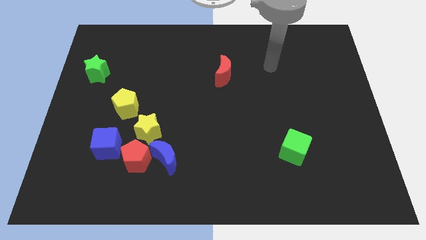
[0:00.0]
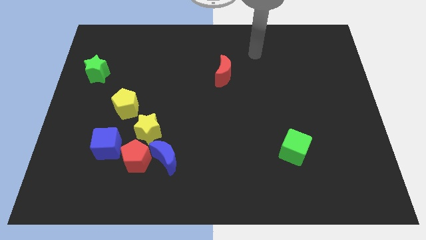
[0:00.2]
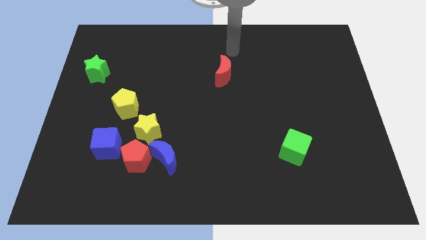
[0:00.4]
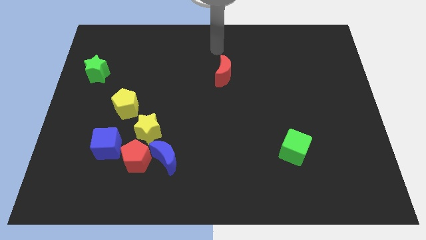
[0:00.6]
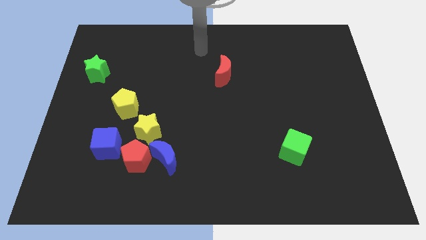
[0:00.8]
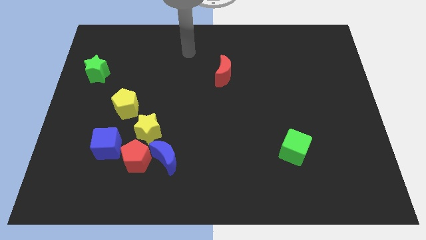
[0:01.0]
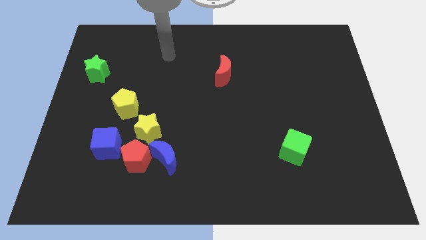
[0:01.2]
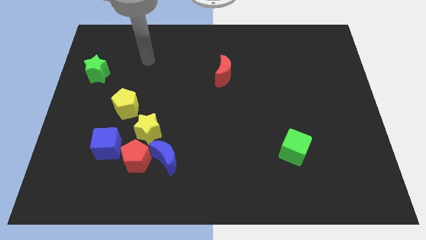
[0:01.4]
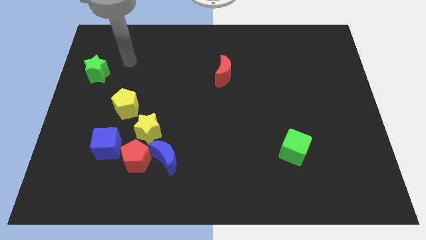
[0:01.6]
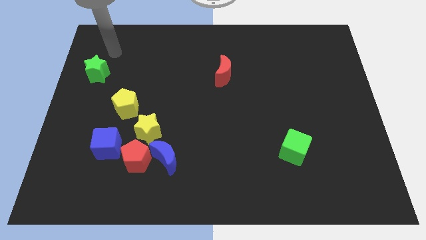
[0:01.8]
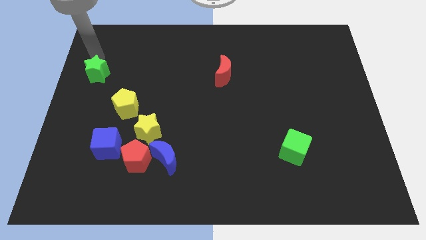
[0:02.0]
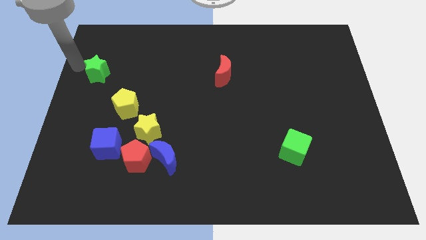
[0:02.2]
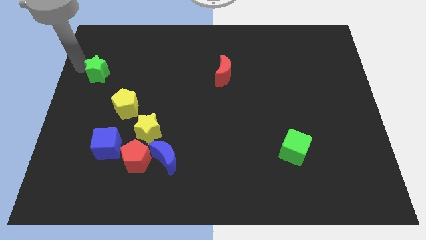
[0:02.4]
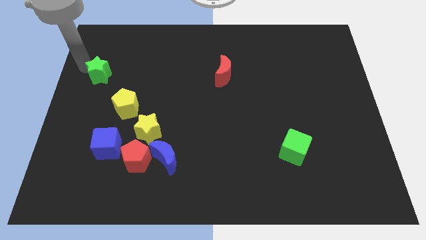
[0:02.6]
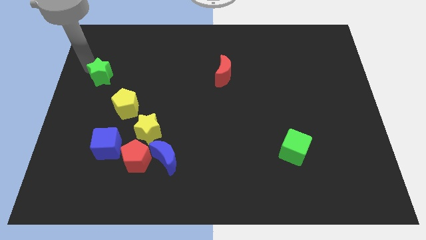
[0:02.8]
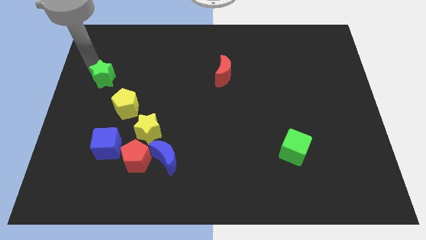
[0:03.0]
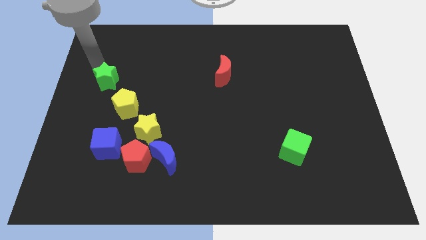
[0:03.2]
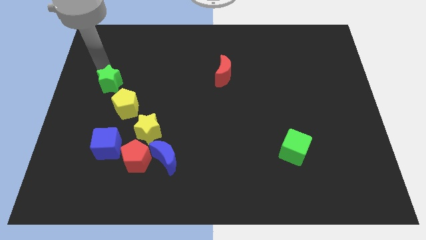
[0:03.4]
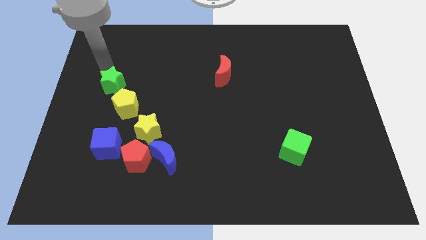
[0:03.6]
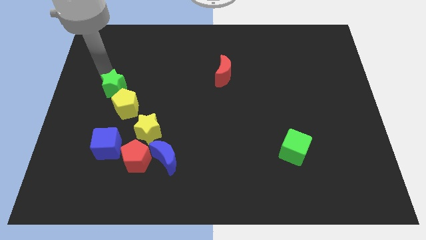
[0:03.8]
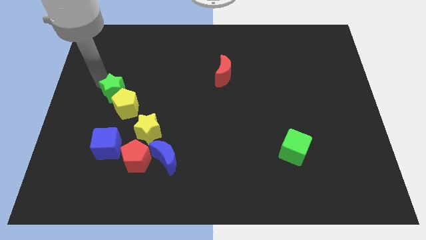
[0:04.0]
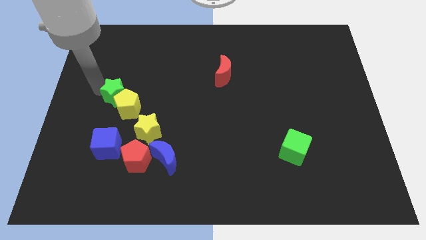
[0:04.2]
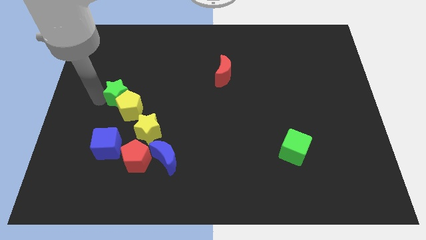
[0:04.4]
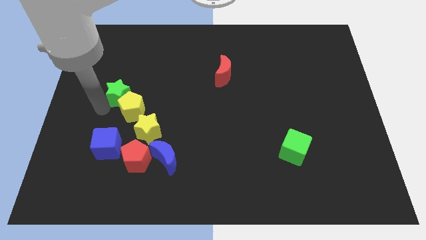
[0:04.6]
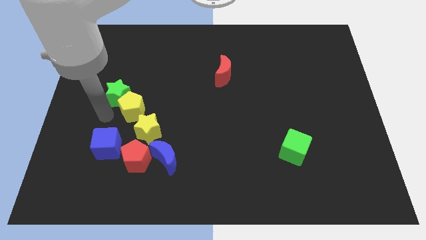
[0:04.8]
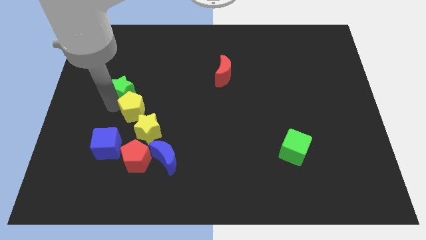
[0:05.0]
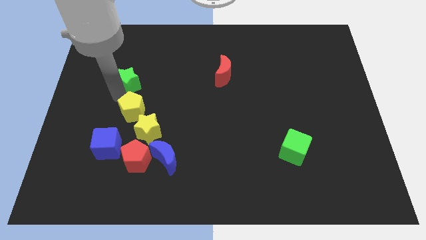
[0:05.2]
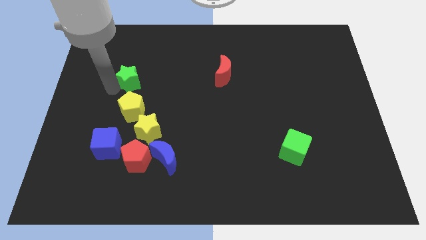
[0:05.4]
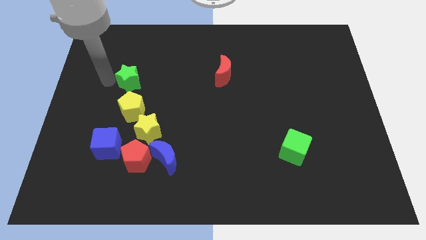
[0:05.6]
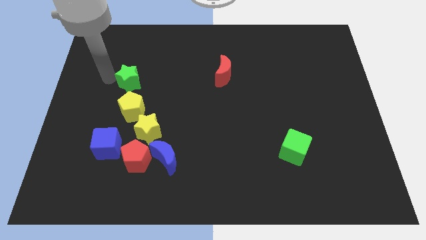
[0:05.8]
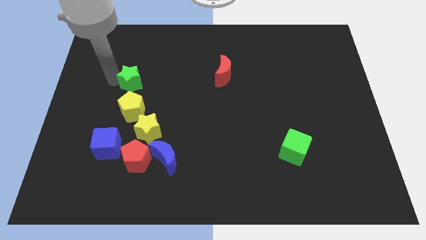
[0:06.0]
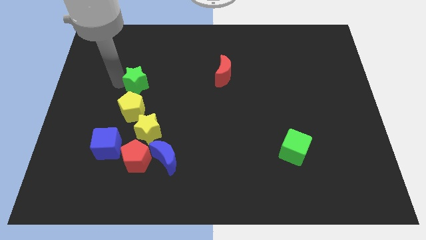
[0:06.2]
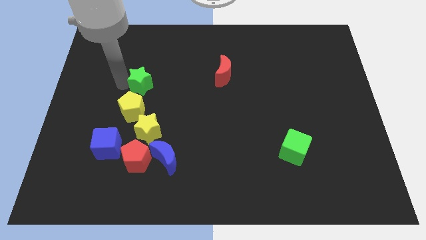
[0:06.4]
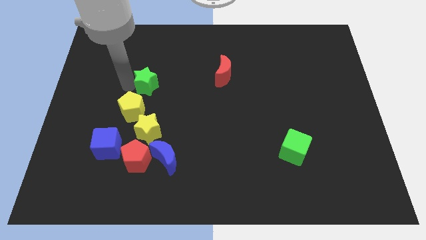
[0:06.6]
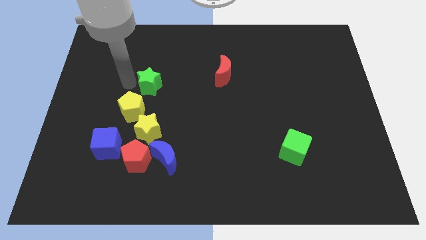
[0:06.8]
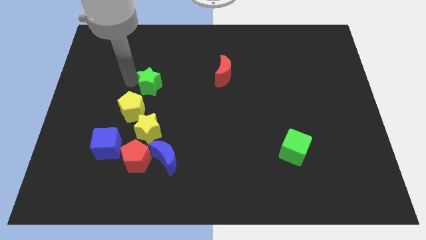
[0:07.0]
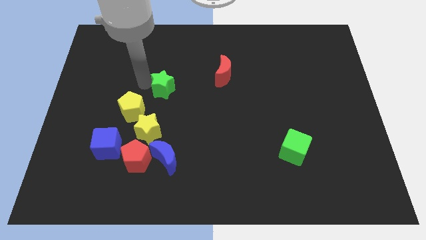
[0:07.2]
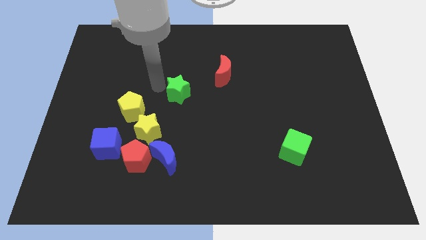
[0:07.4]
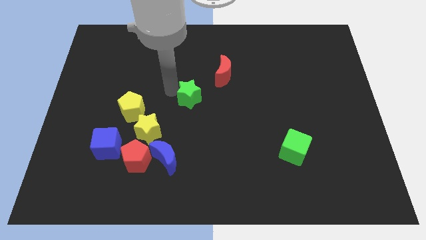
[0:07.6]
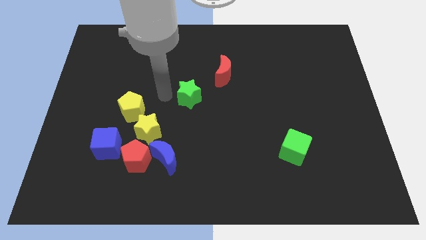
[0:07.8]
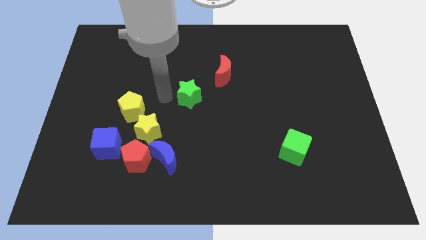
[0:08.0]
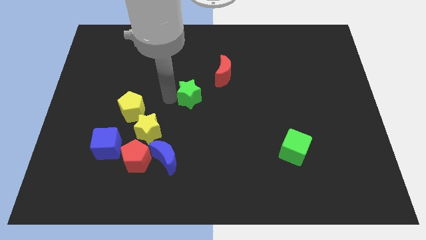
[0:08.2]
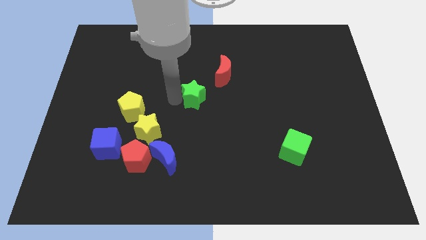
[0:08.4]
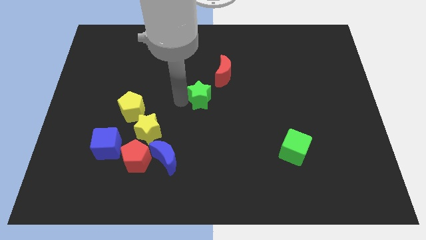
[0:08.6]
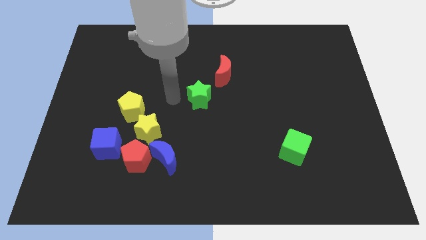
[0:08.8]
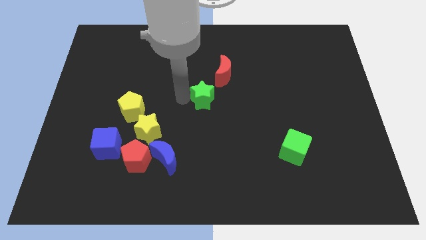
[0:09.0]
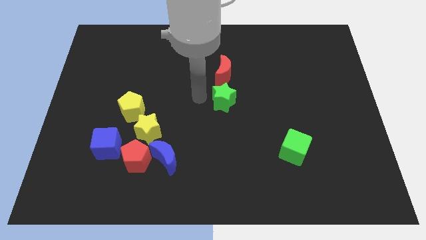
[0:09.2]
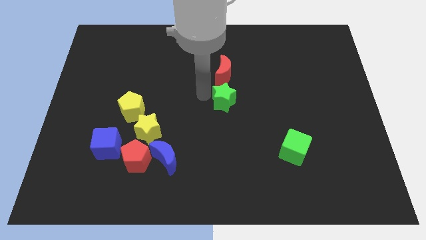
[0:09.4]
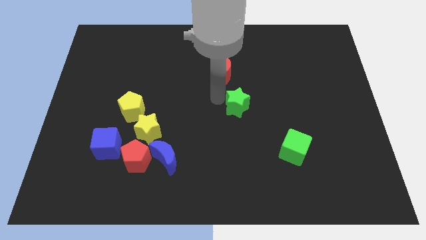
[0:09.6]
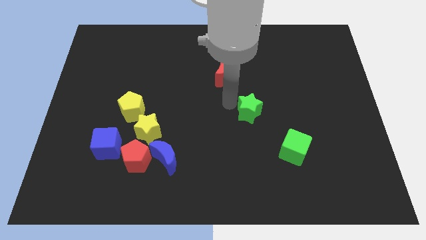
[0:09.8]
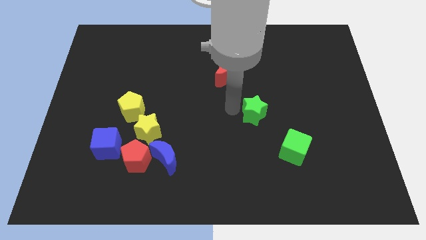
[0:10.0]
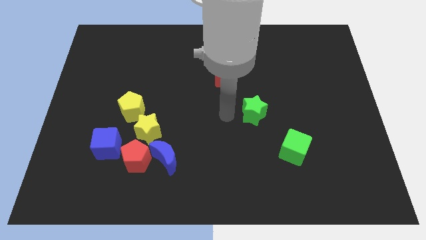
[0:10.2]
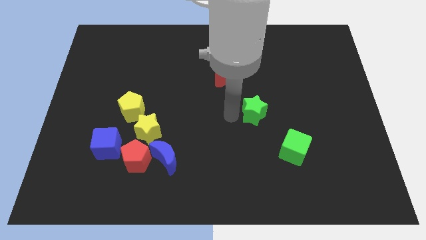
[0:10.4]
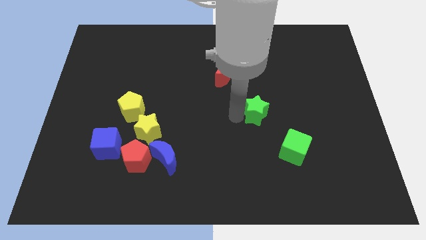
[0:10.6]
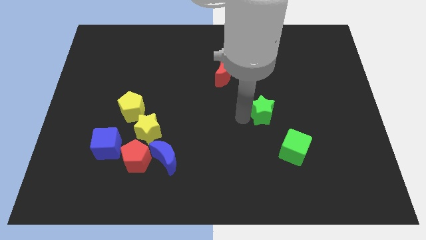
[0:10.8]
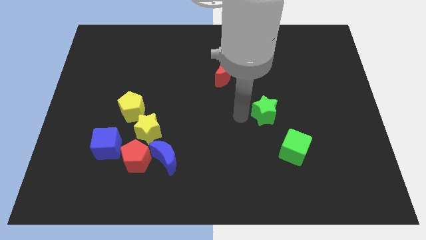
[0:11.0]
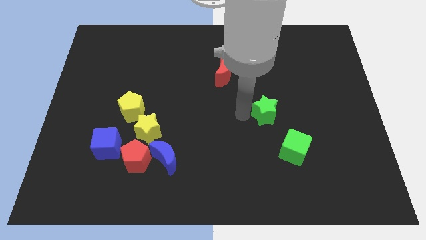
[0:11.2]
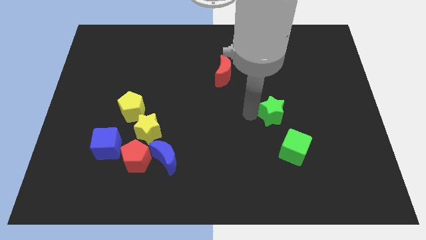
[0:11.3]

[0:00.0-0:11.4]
slide the green star to the top side of the green cube

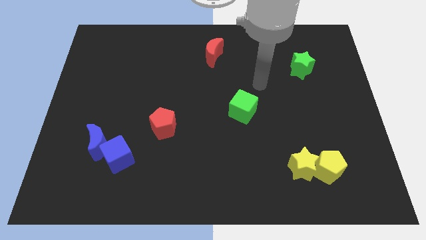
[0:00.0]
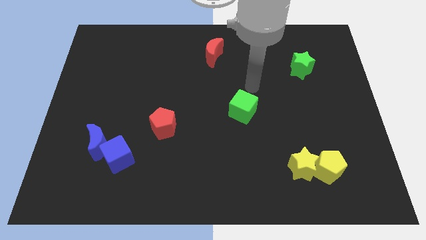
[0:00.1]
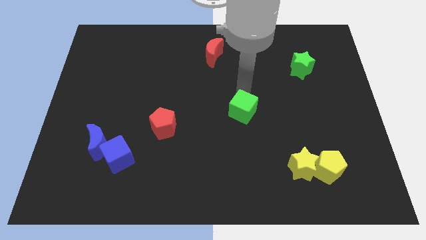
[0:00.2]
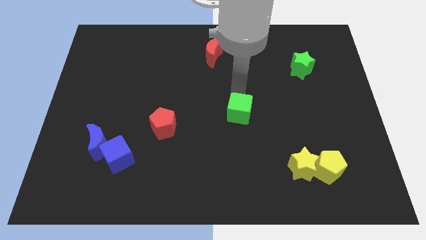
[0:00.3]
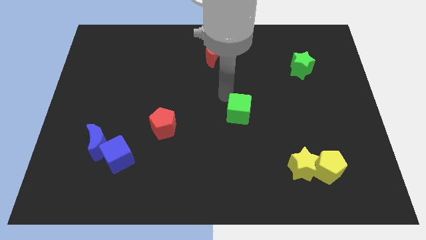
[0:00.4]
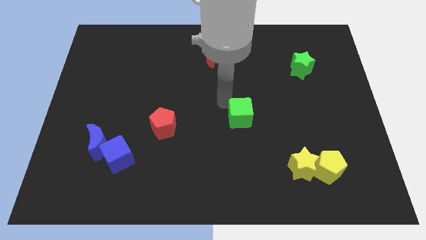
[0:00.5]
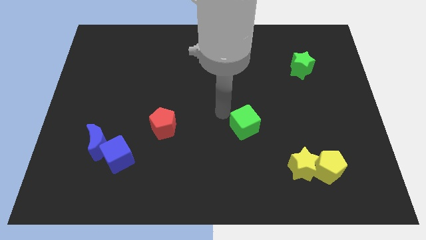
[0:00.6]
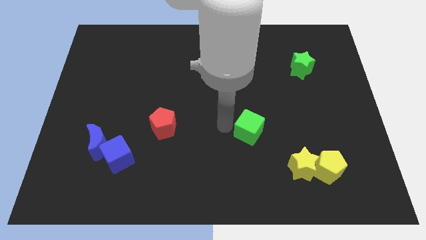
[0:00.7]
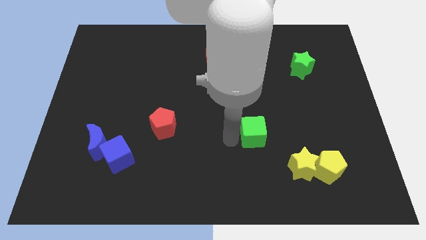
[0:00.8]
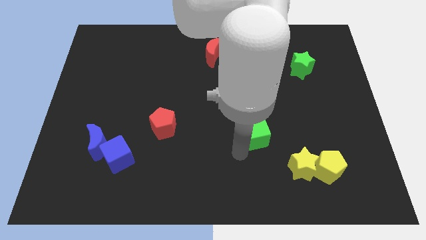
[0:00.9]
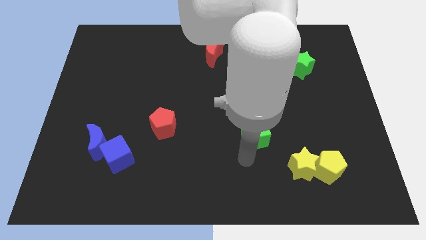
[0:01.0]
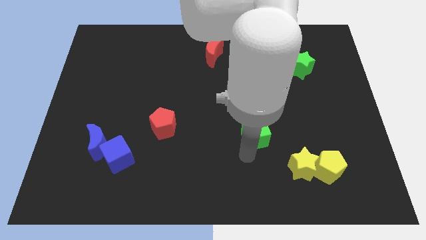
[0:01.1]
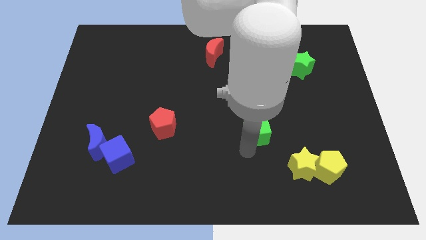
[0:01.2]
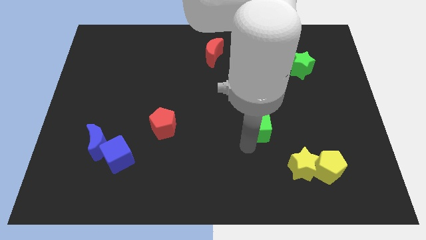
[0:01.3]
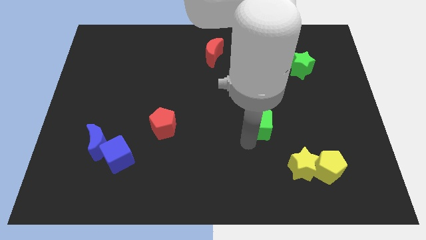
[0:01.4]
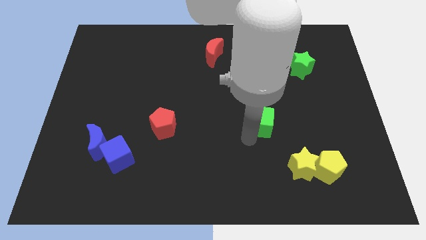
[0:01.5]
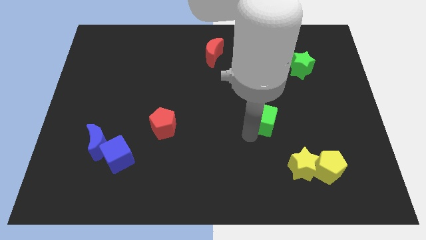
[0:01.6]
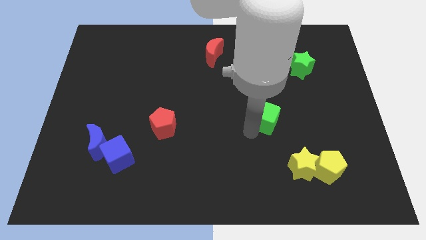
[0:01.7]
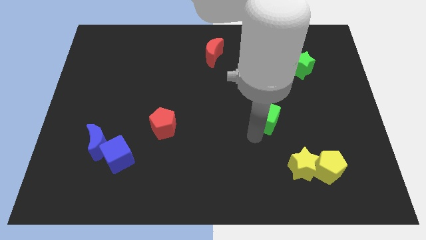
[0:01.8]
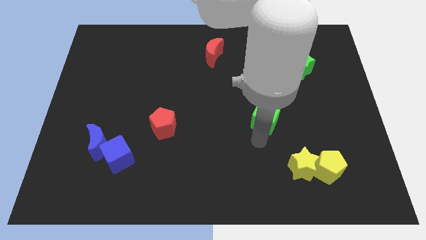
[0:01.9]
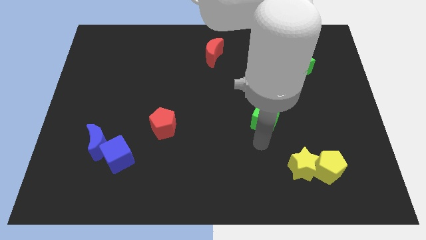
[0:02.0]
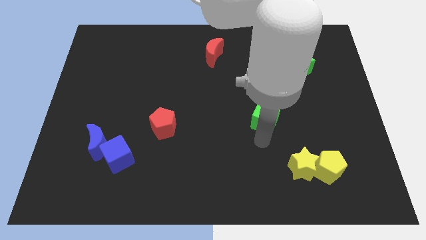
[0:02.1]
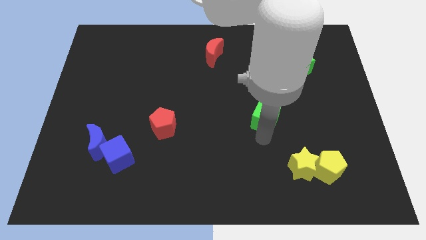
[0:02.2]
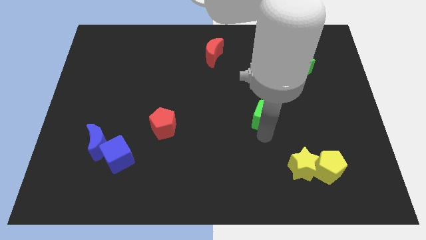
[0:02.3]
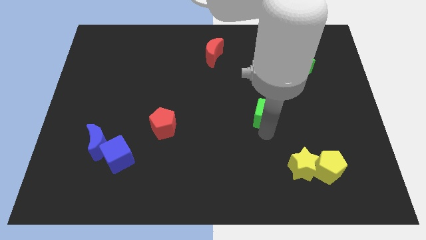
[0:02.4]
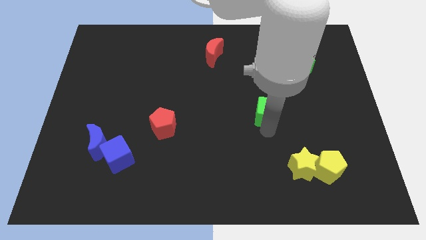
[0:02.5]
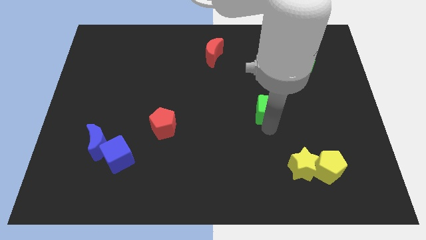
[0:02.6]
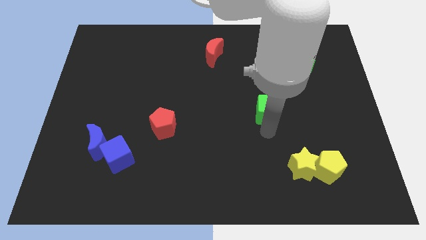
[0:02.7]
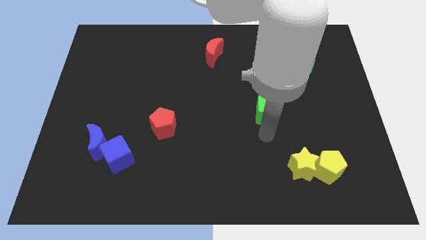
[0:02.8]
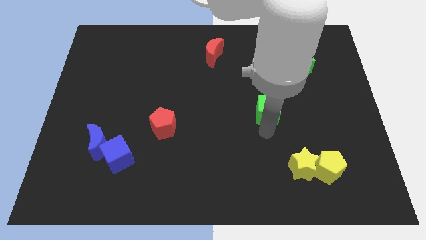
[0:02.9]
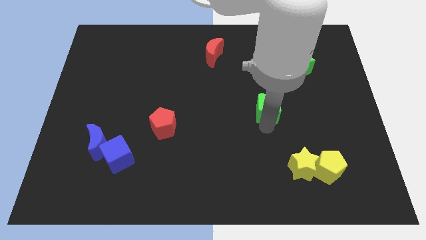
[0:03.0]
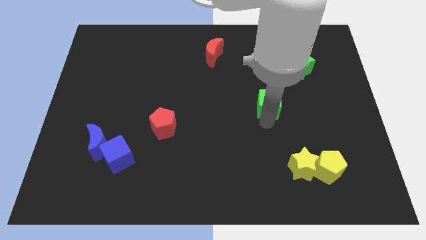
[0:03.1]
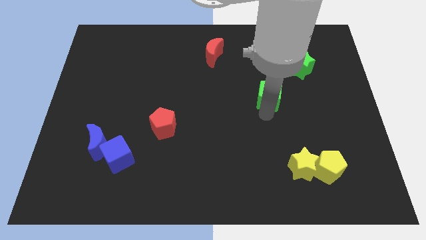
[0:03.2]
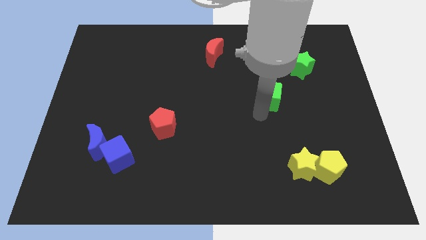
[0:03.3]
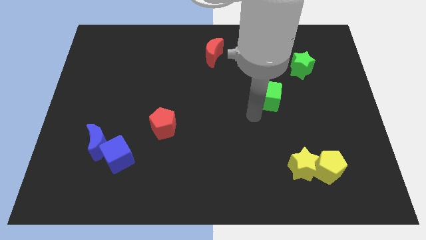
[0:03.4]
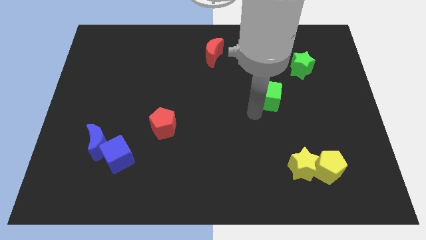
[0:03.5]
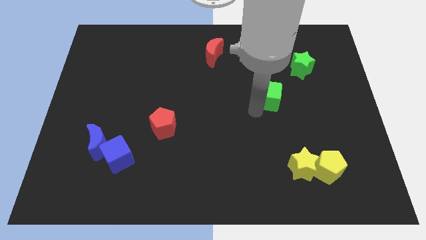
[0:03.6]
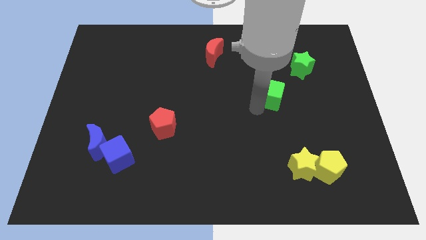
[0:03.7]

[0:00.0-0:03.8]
push the green cube to the bottom left of the green star
